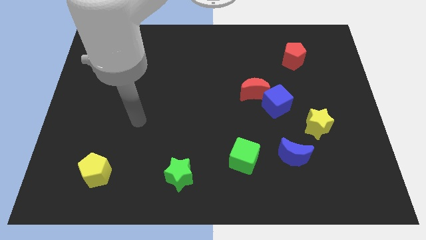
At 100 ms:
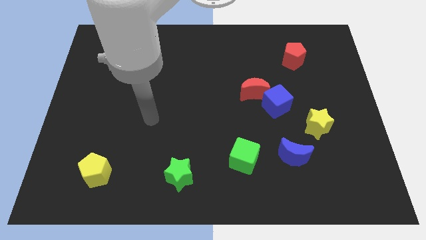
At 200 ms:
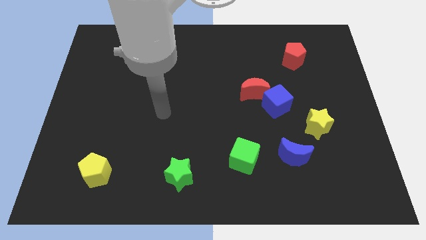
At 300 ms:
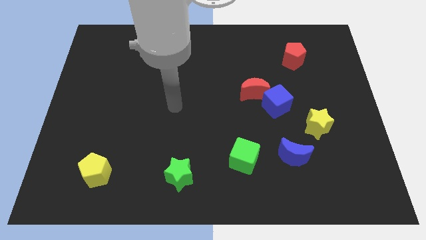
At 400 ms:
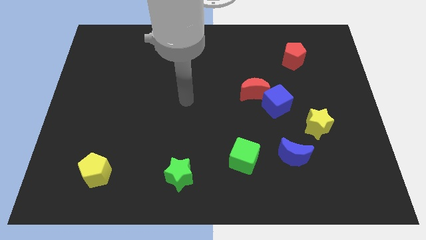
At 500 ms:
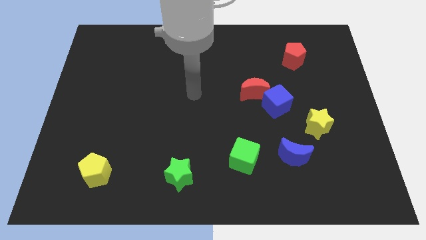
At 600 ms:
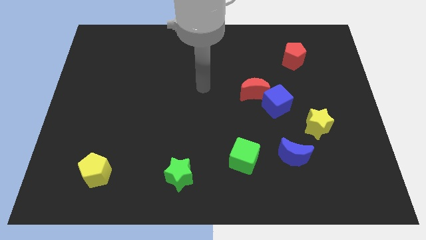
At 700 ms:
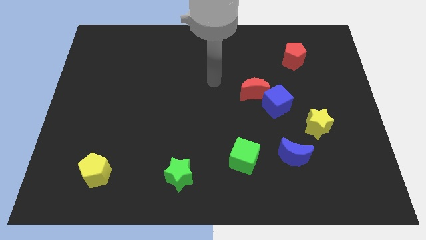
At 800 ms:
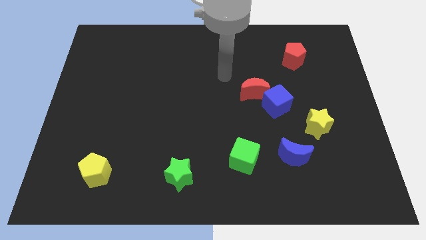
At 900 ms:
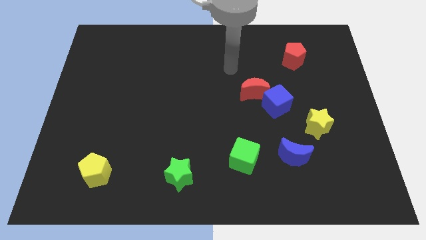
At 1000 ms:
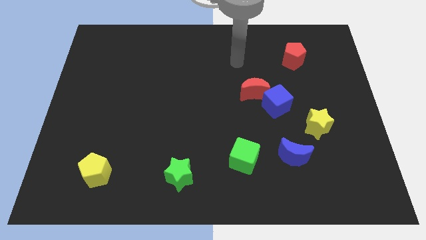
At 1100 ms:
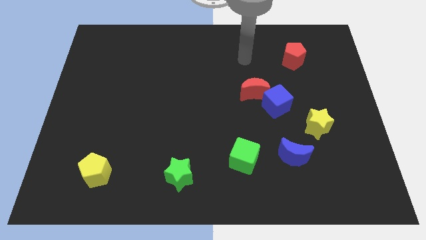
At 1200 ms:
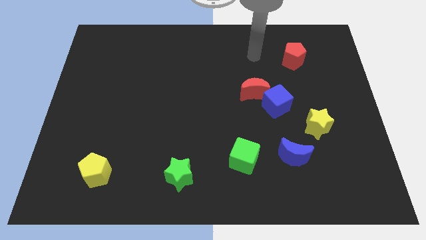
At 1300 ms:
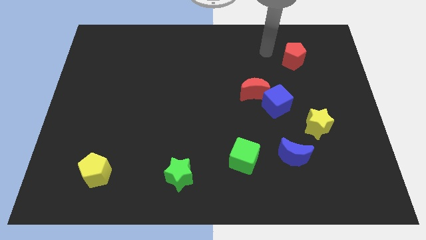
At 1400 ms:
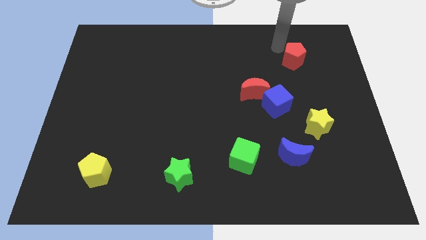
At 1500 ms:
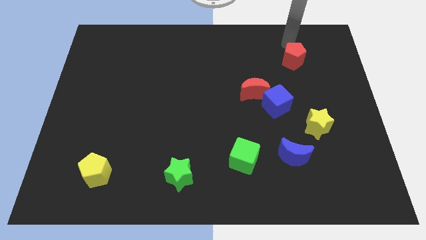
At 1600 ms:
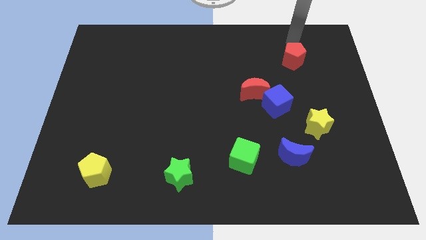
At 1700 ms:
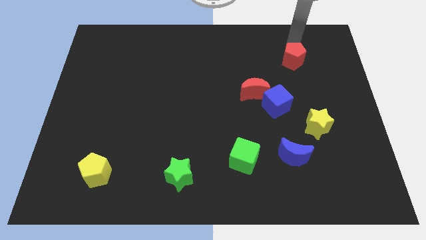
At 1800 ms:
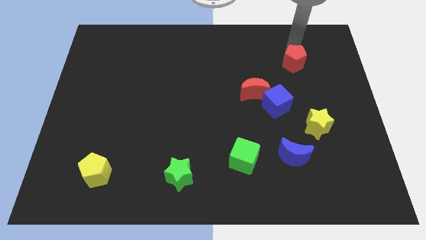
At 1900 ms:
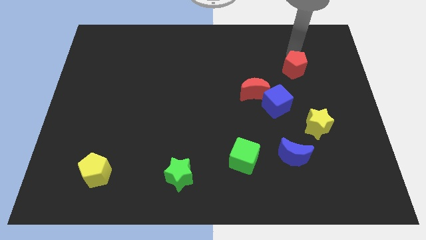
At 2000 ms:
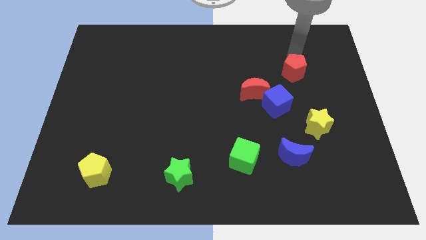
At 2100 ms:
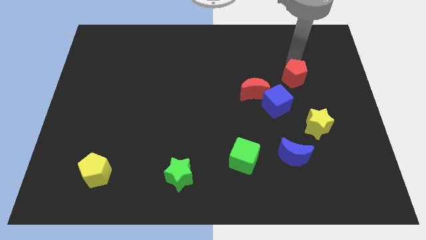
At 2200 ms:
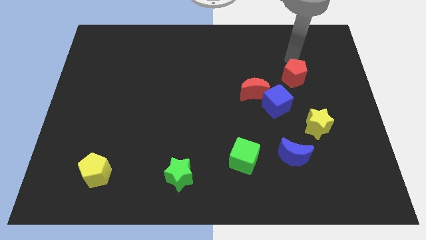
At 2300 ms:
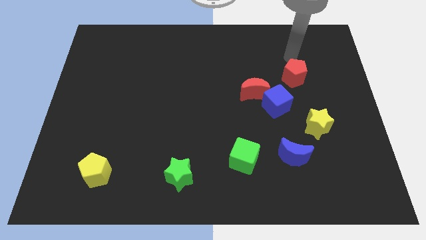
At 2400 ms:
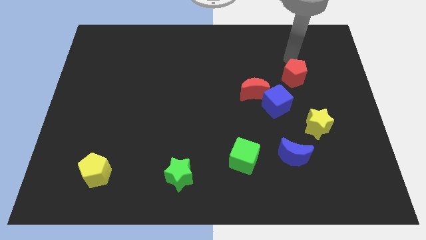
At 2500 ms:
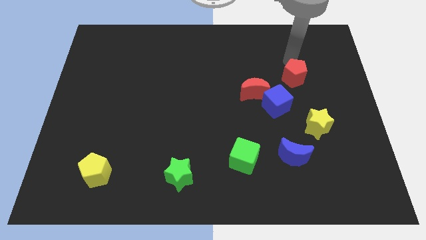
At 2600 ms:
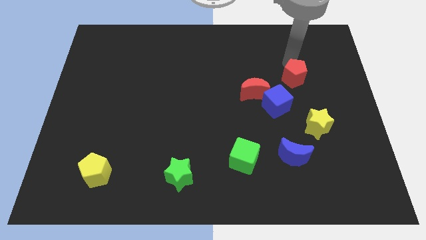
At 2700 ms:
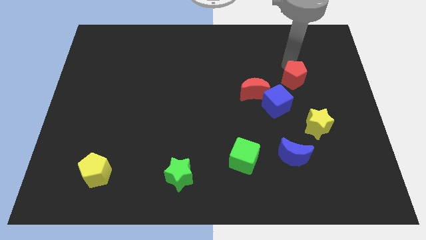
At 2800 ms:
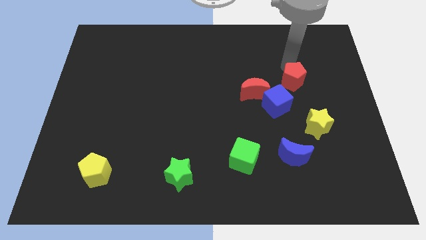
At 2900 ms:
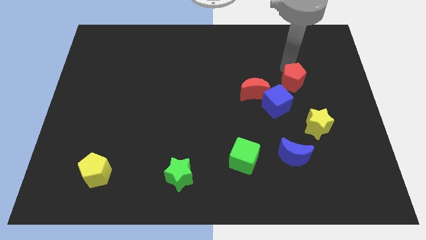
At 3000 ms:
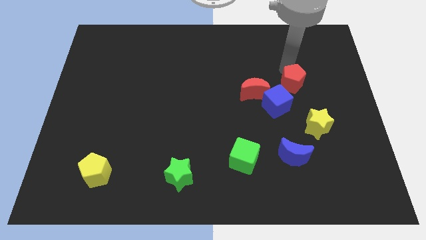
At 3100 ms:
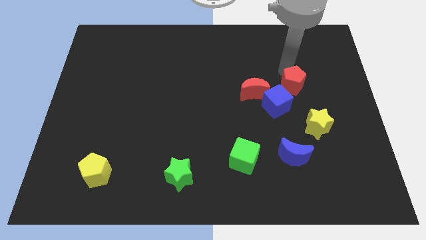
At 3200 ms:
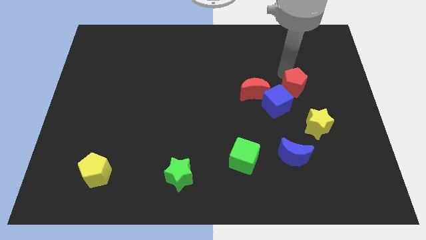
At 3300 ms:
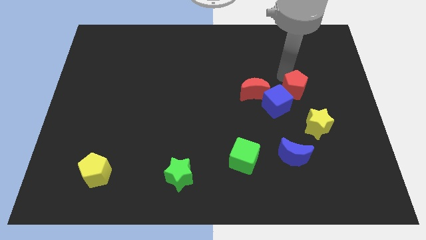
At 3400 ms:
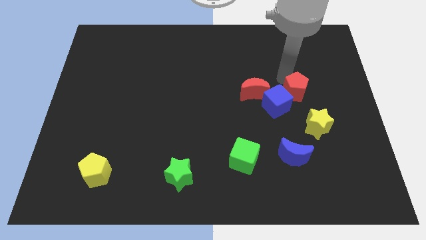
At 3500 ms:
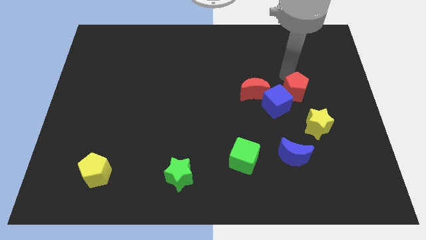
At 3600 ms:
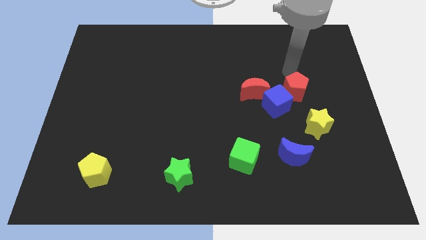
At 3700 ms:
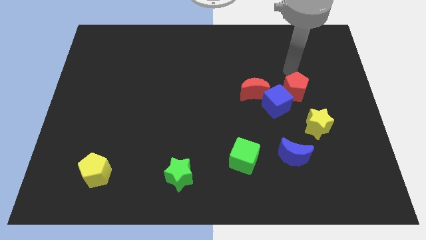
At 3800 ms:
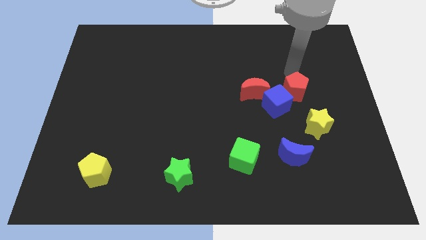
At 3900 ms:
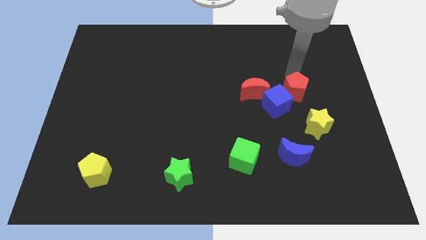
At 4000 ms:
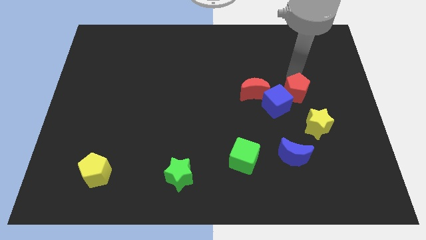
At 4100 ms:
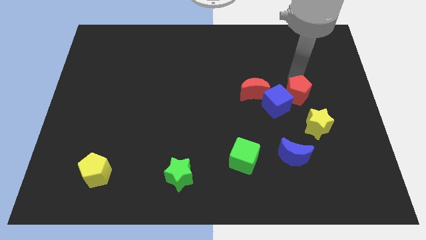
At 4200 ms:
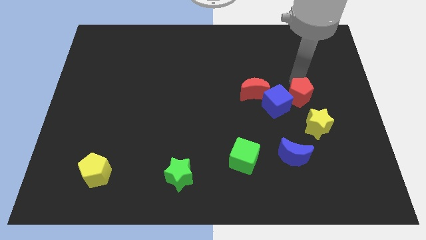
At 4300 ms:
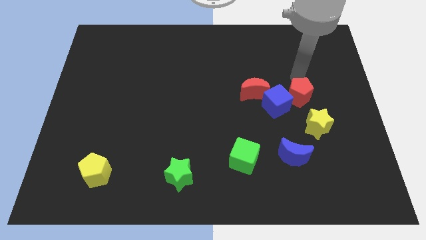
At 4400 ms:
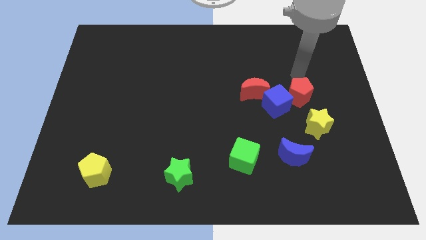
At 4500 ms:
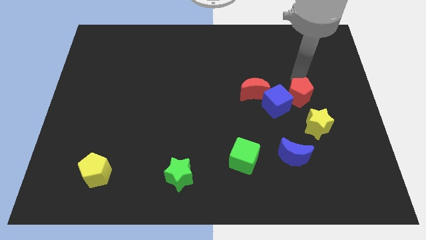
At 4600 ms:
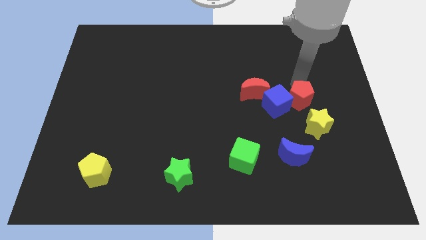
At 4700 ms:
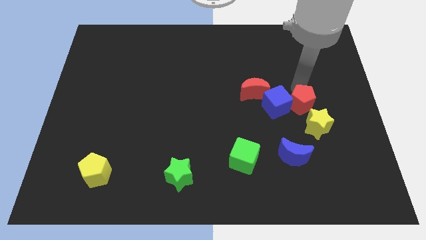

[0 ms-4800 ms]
push the red pentagon to the top side of the blue moon

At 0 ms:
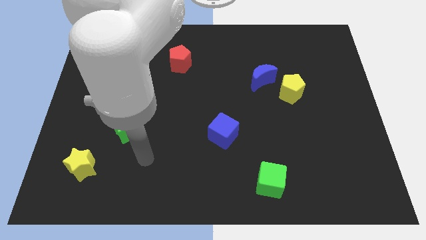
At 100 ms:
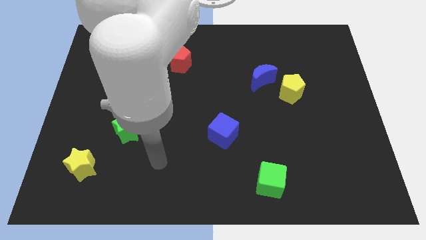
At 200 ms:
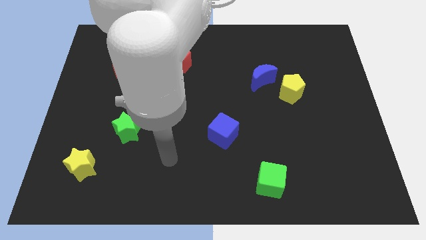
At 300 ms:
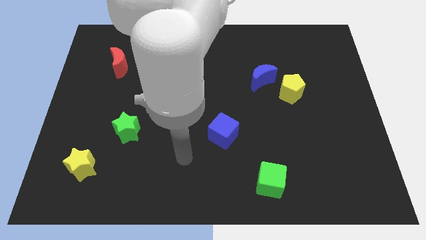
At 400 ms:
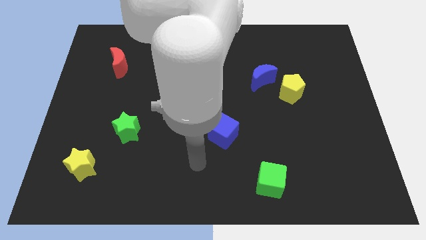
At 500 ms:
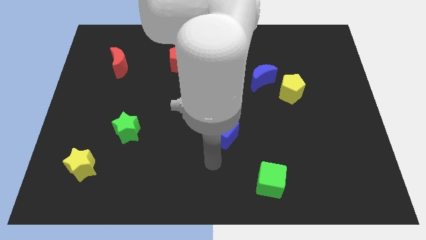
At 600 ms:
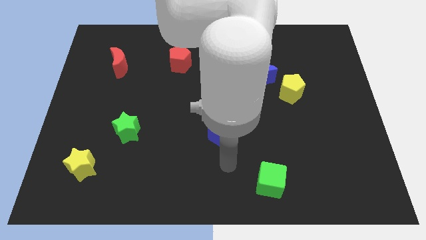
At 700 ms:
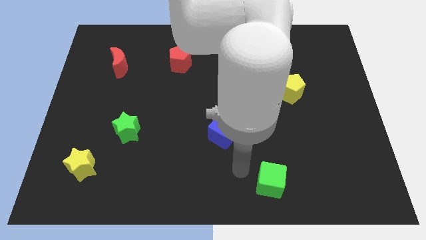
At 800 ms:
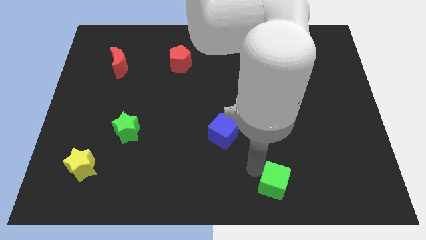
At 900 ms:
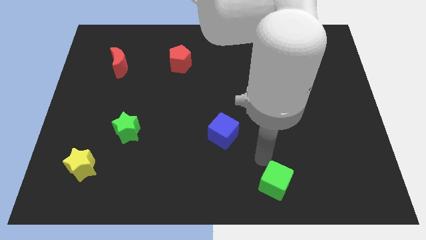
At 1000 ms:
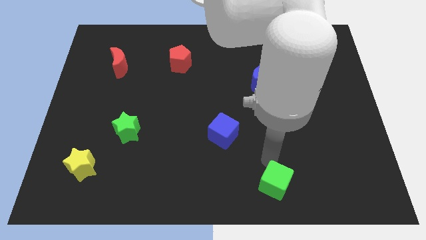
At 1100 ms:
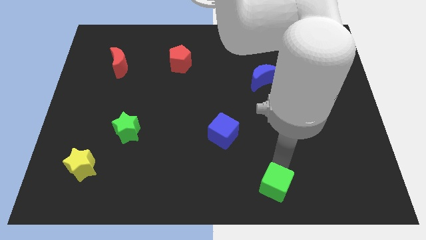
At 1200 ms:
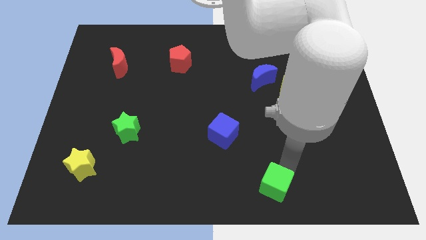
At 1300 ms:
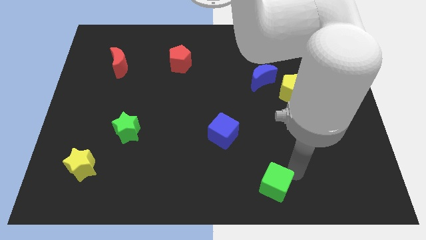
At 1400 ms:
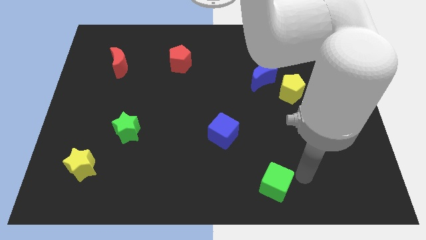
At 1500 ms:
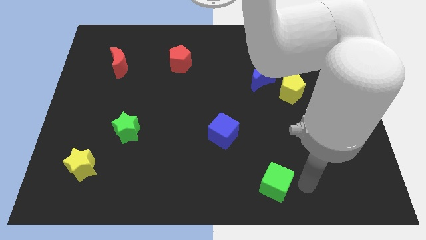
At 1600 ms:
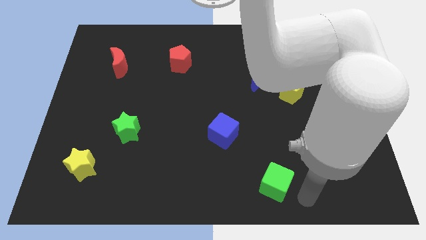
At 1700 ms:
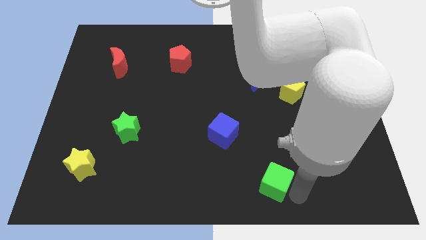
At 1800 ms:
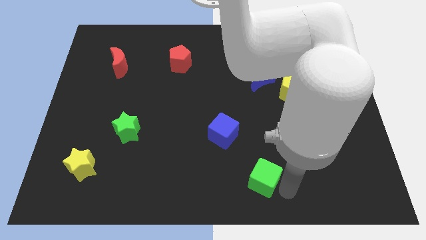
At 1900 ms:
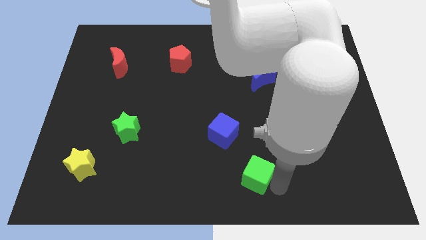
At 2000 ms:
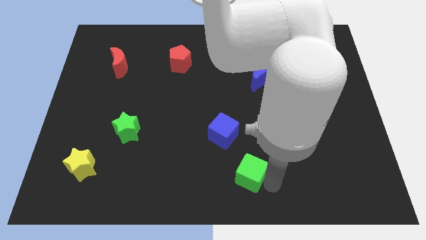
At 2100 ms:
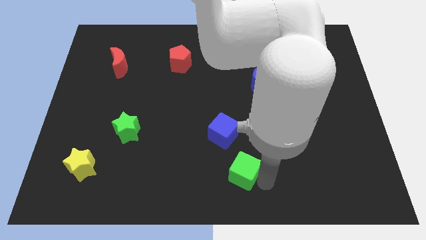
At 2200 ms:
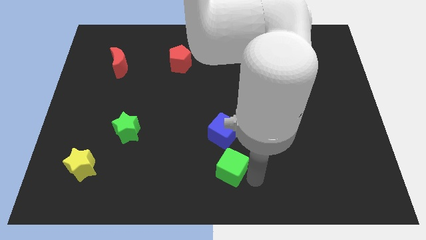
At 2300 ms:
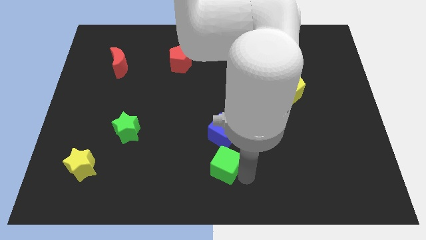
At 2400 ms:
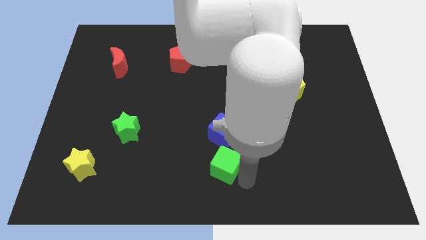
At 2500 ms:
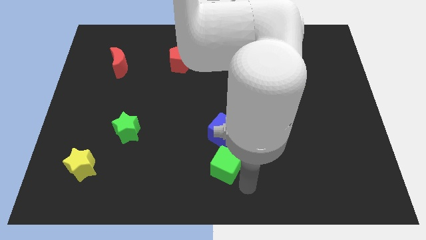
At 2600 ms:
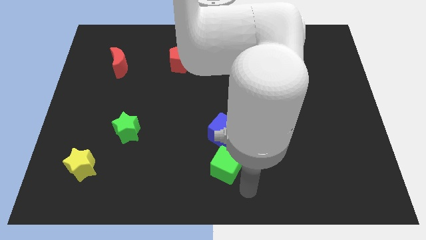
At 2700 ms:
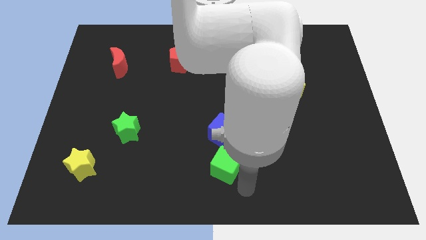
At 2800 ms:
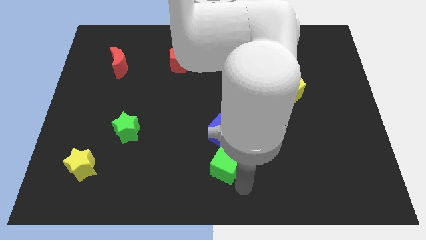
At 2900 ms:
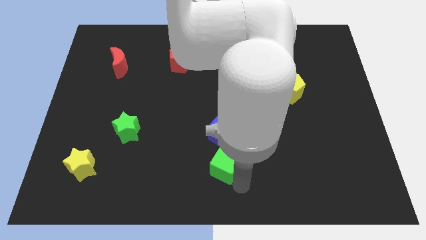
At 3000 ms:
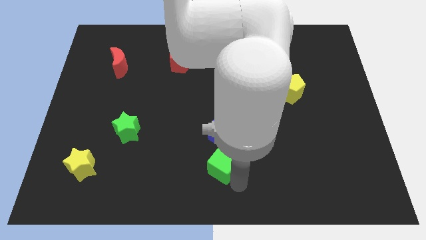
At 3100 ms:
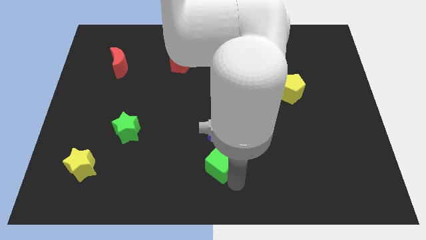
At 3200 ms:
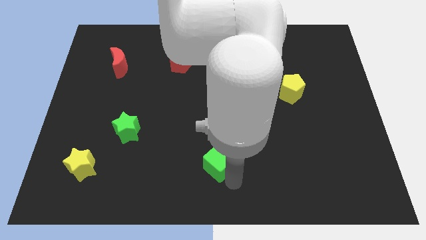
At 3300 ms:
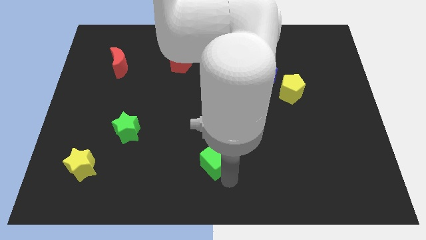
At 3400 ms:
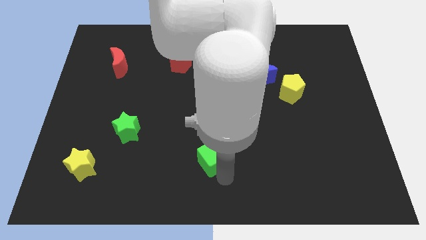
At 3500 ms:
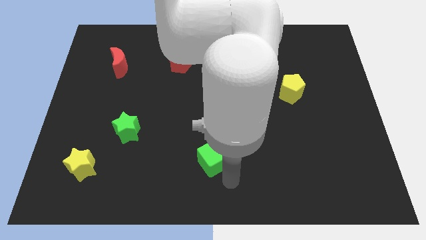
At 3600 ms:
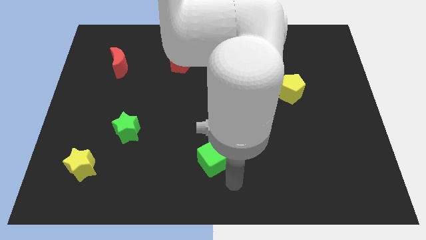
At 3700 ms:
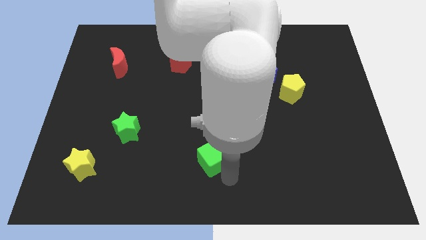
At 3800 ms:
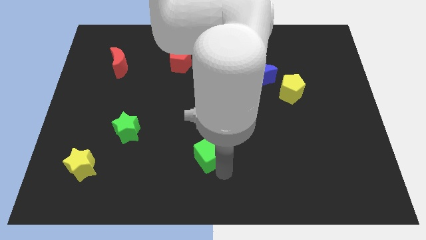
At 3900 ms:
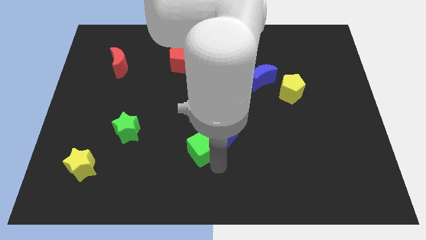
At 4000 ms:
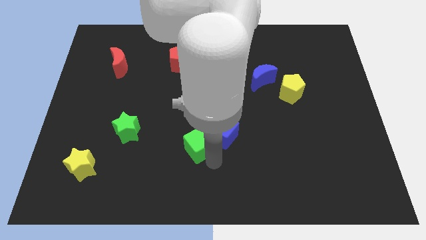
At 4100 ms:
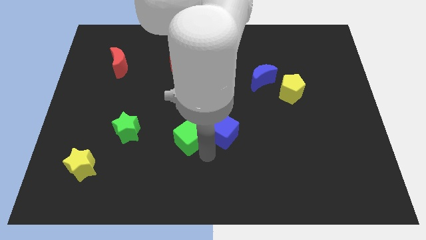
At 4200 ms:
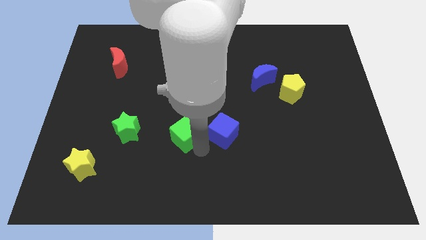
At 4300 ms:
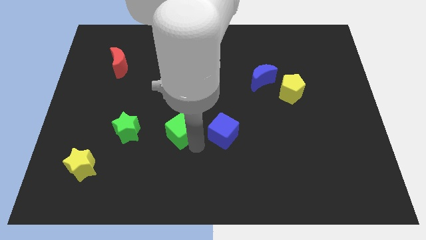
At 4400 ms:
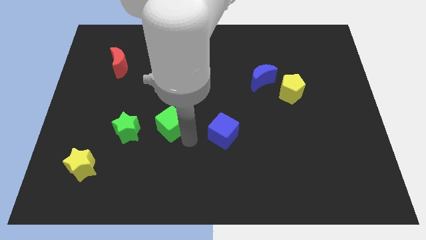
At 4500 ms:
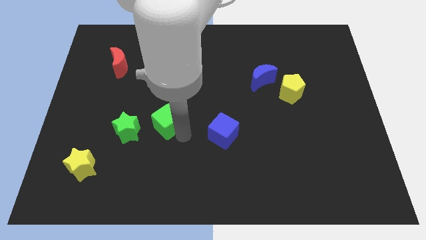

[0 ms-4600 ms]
slide the green cube to the top right of the green star
